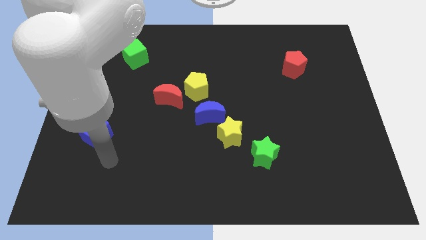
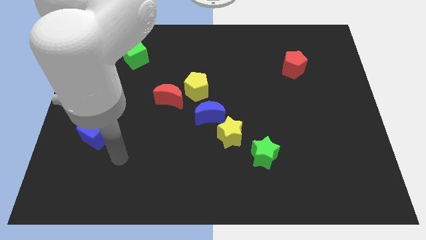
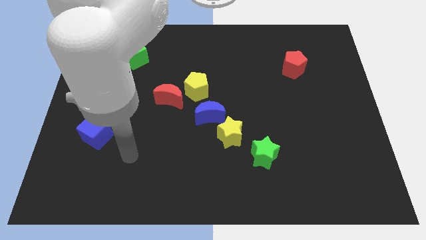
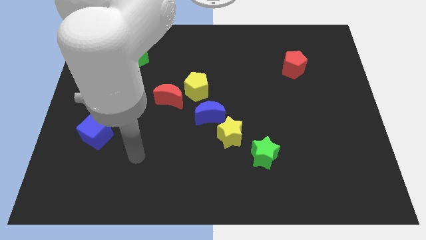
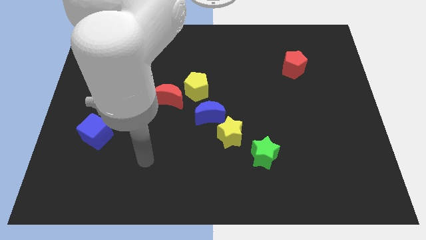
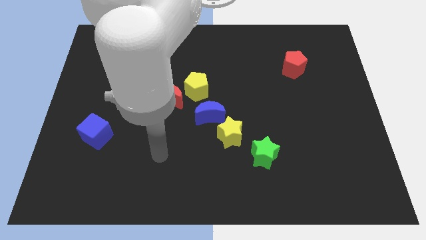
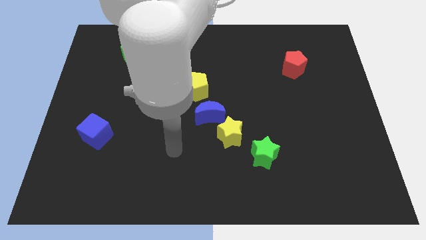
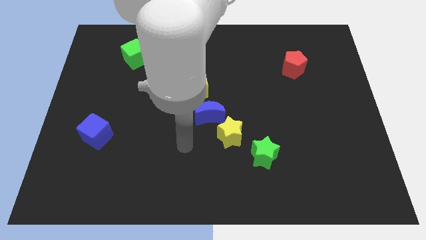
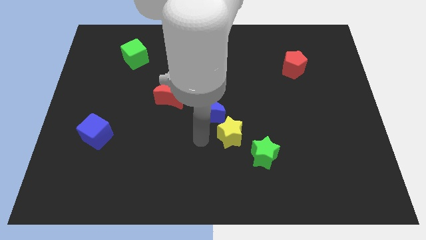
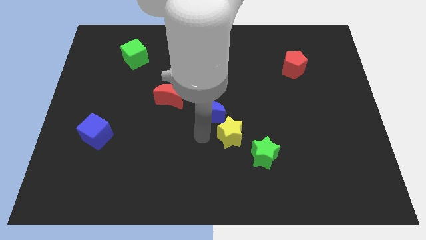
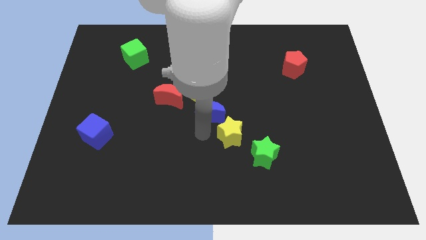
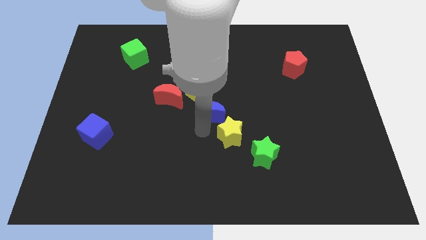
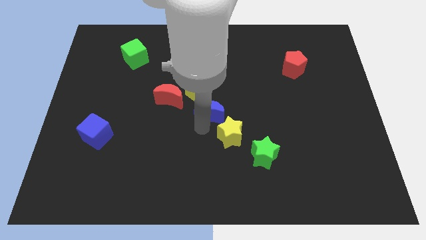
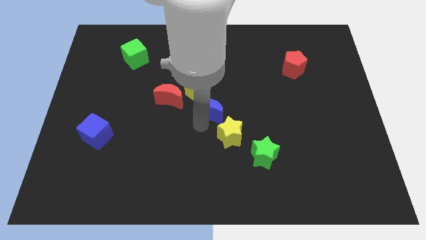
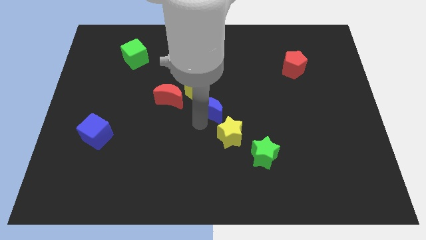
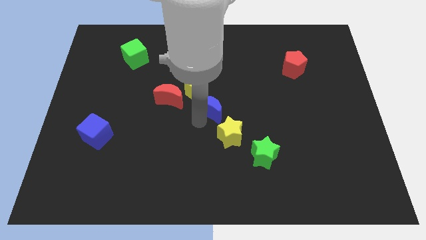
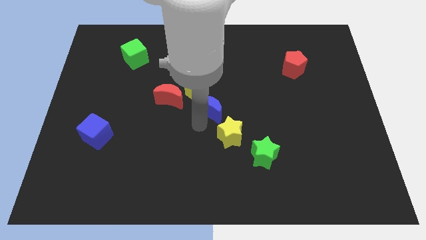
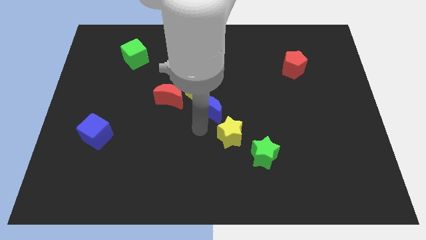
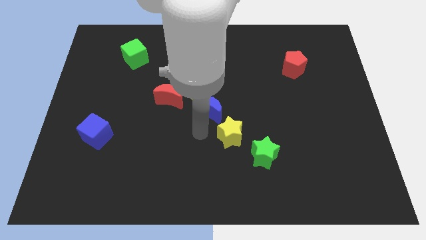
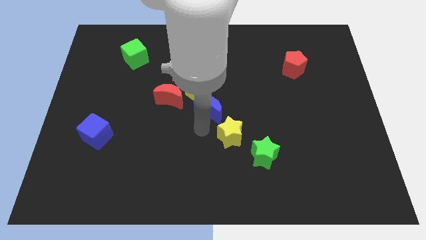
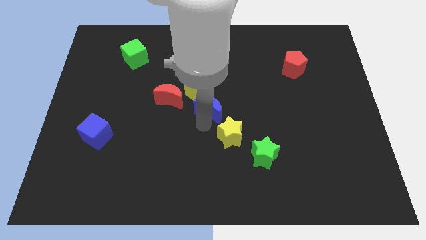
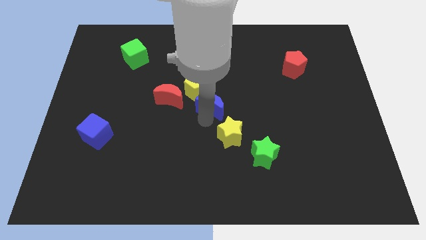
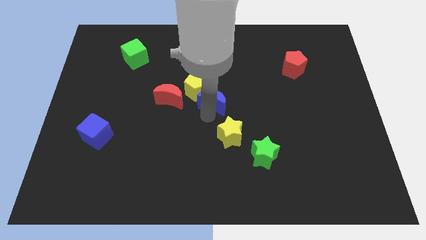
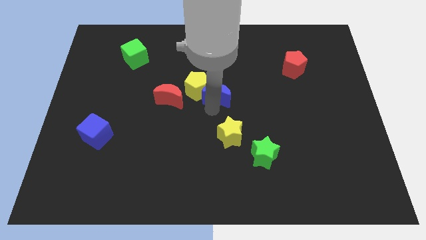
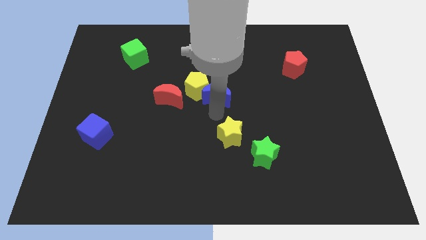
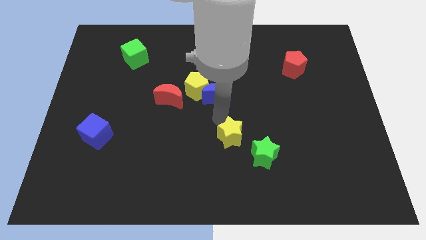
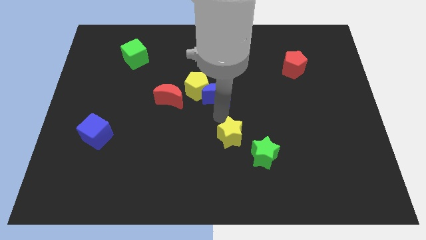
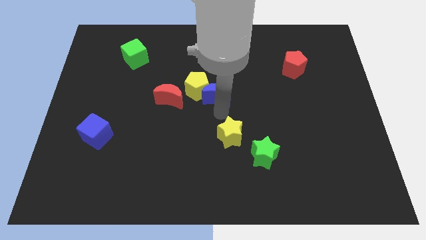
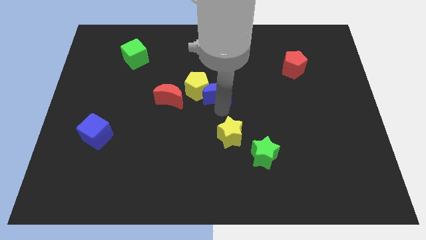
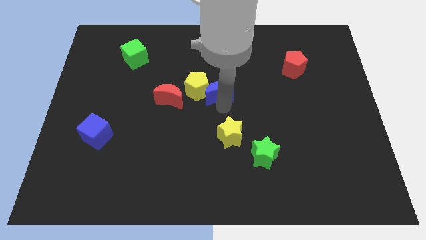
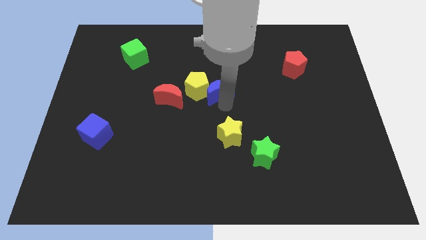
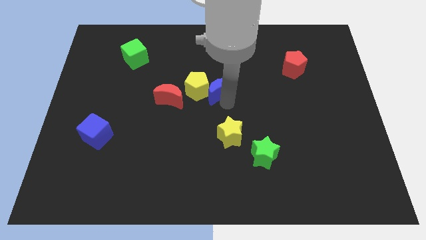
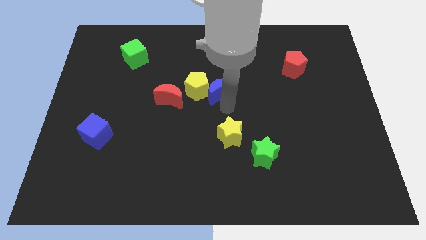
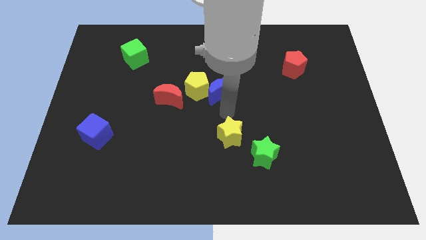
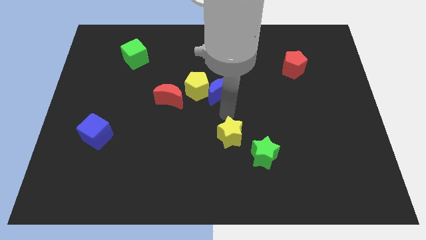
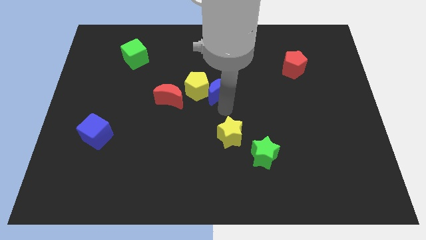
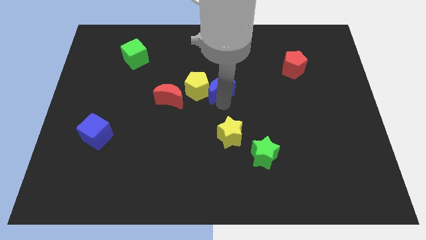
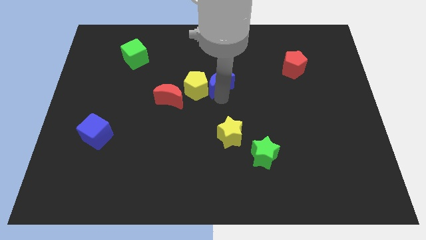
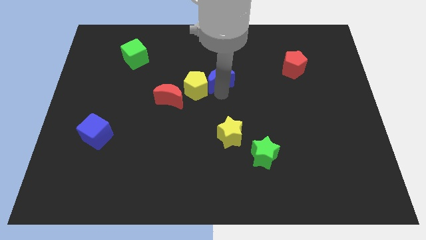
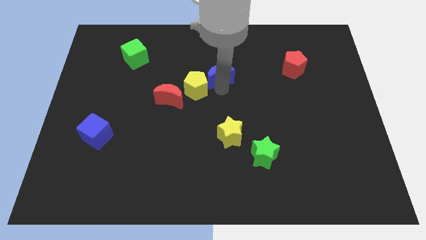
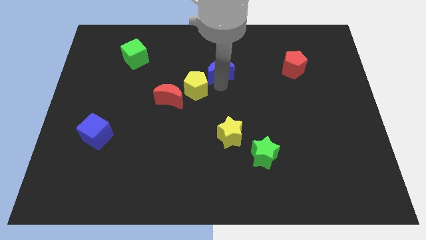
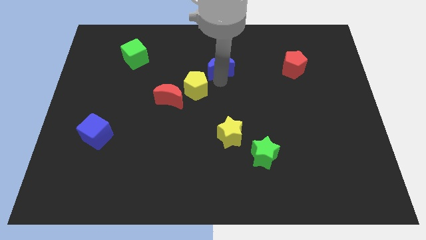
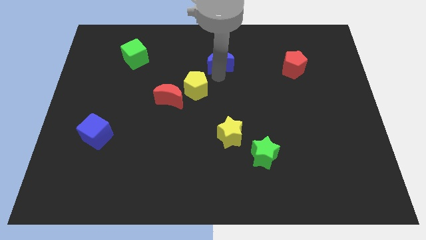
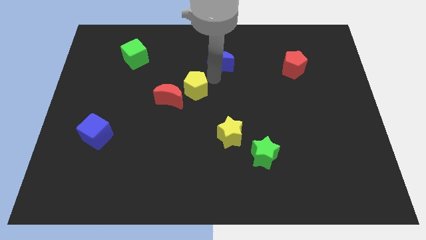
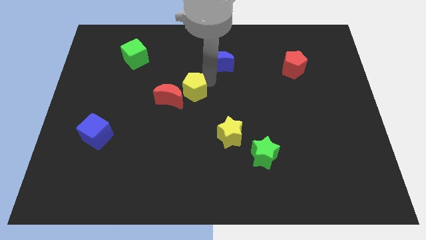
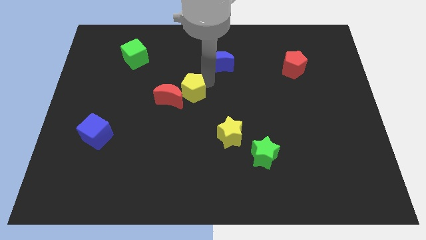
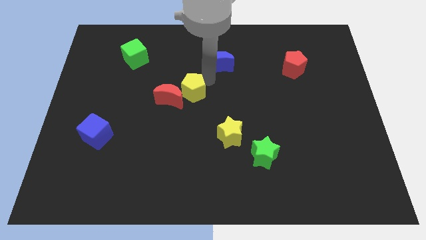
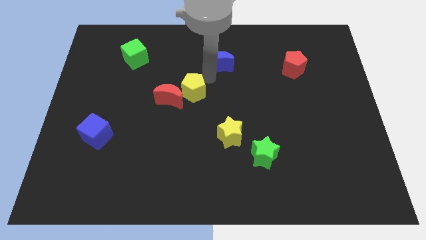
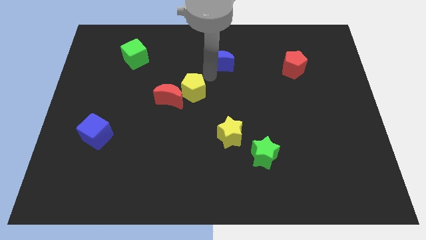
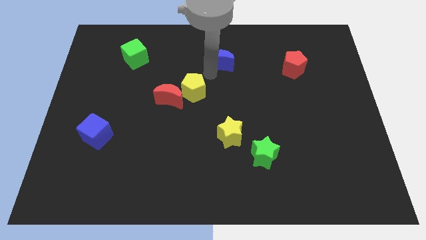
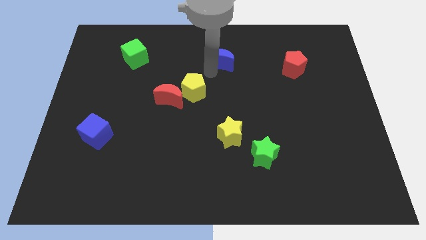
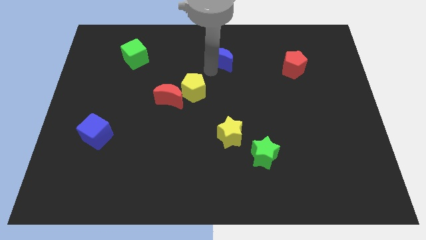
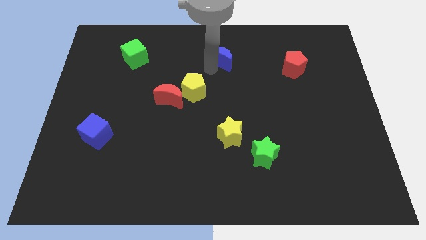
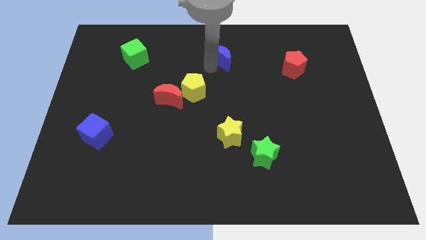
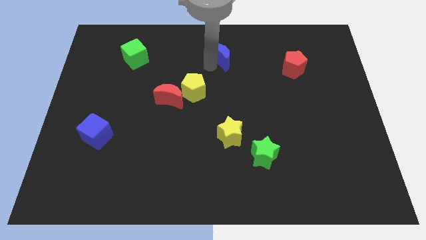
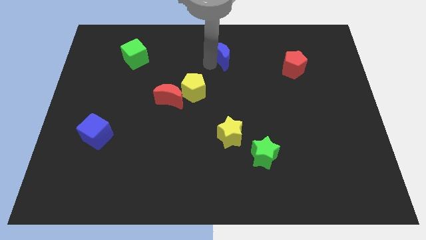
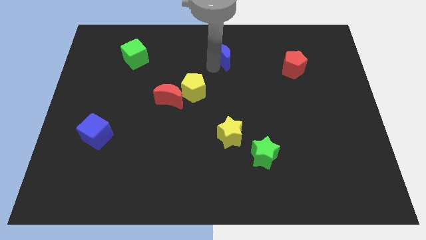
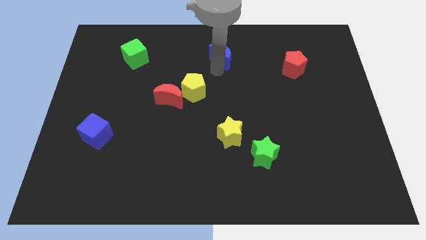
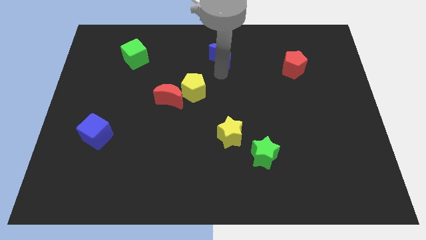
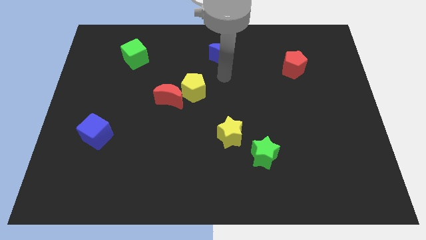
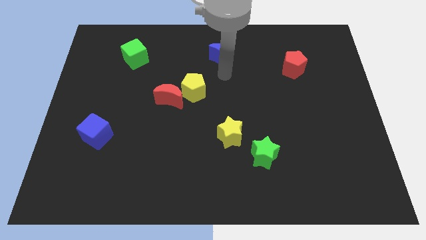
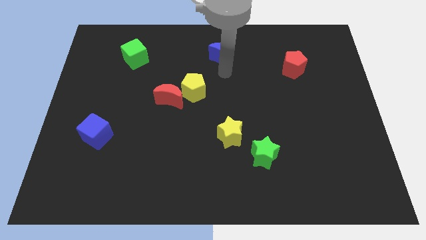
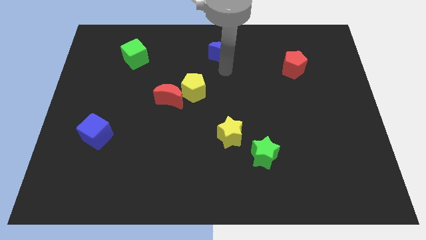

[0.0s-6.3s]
slide the blue moon to the top

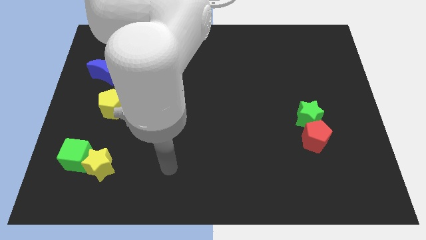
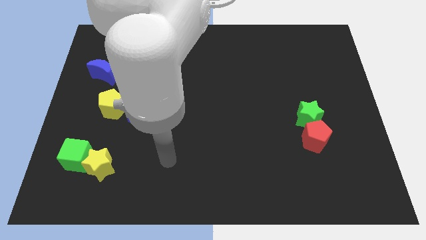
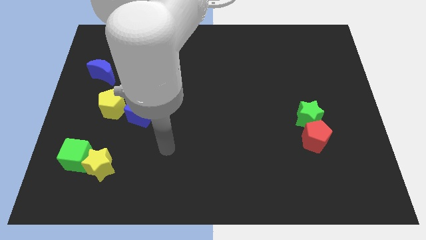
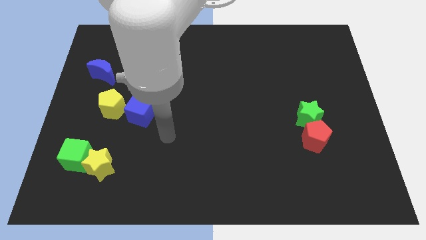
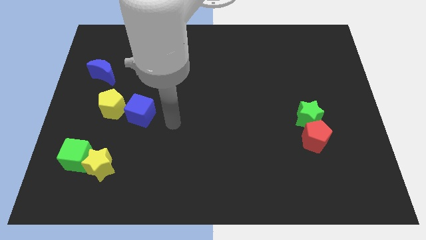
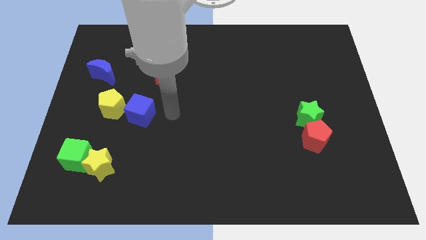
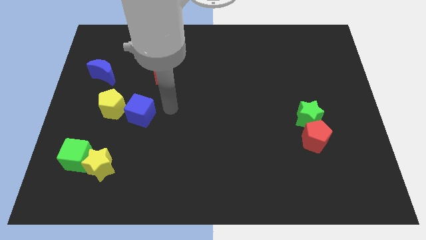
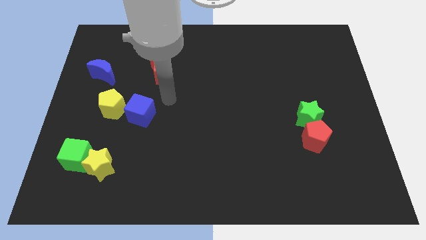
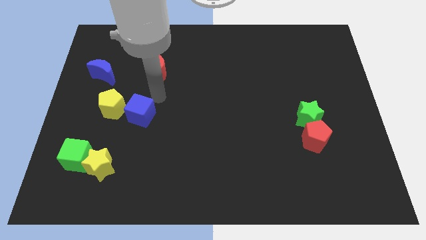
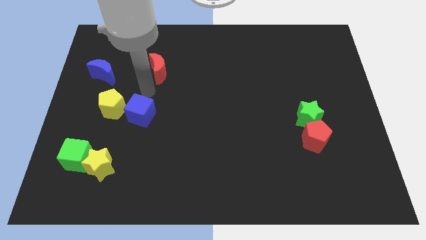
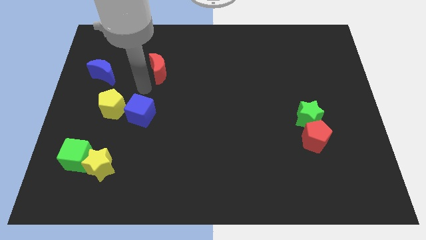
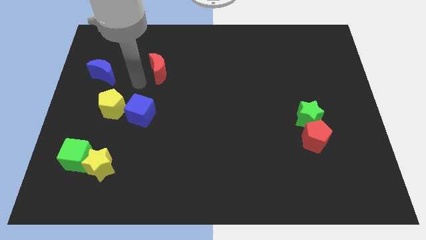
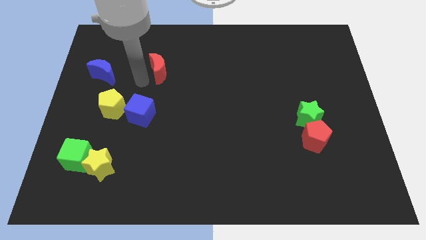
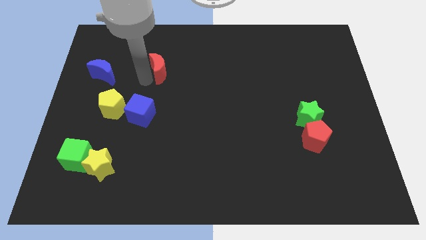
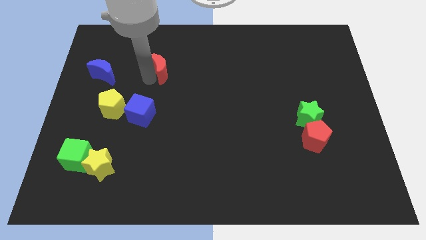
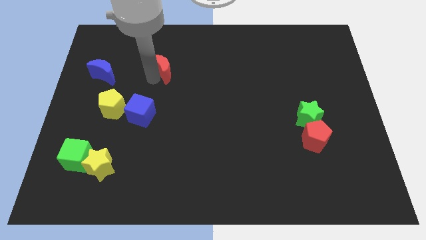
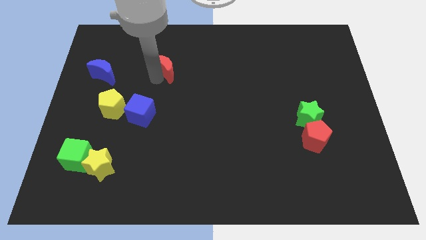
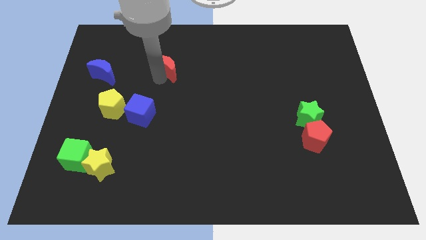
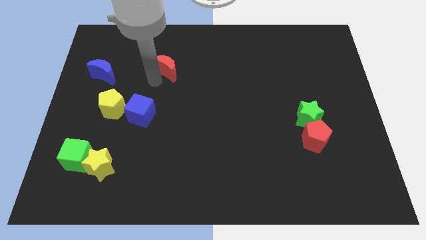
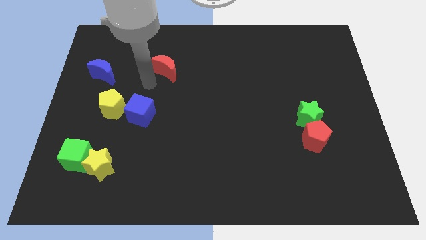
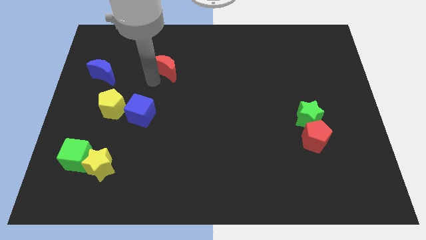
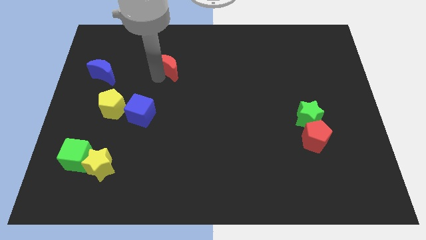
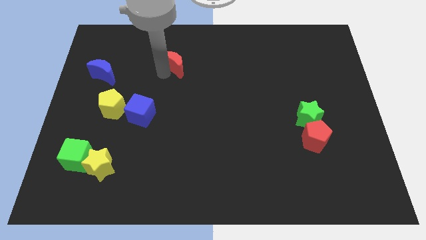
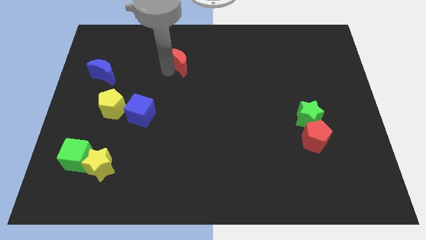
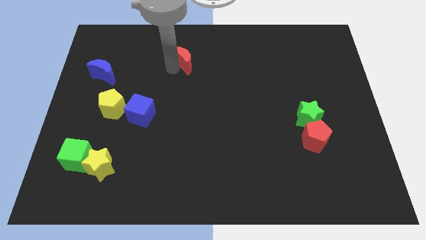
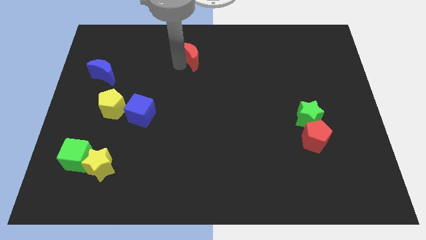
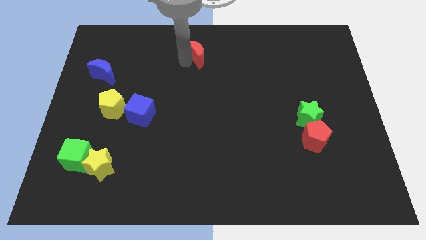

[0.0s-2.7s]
move the red moon to the top
